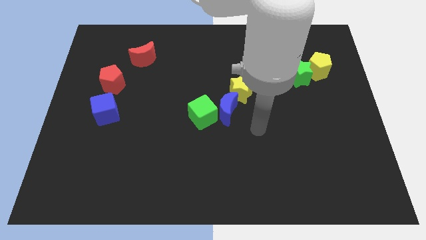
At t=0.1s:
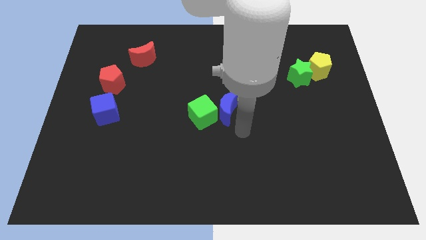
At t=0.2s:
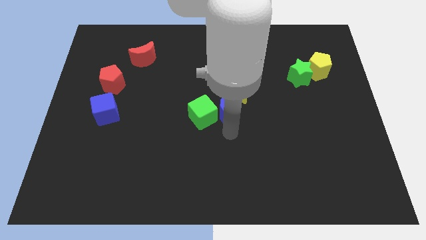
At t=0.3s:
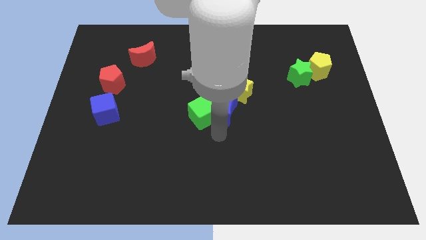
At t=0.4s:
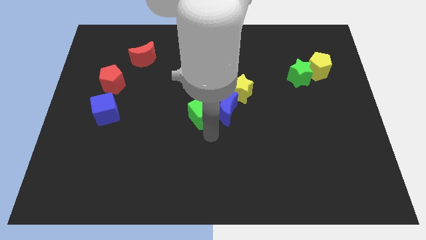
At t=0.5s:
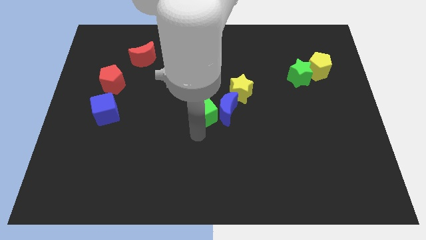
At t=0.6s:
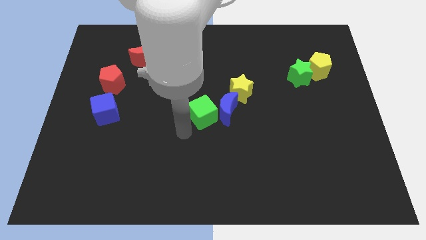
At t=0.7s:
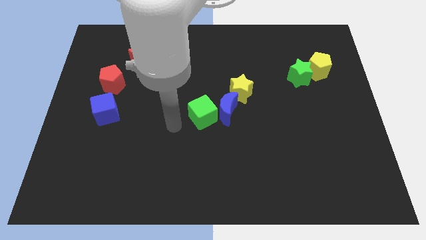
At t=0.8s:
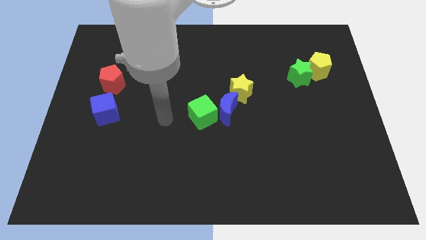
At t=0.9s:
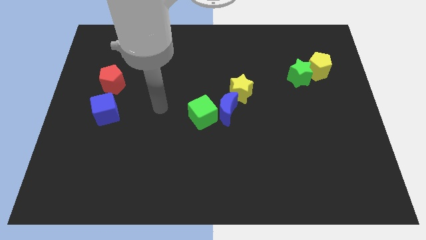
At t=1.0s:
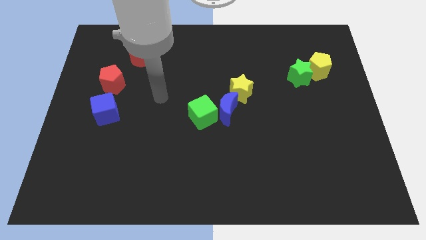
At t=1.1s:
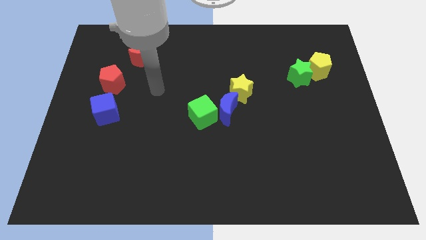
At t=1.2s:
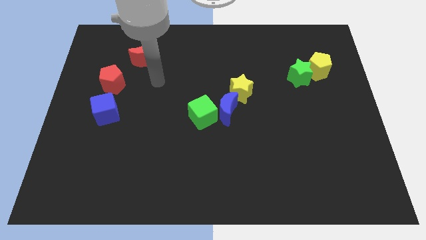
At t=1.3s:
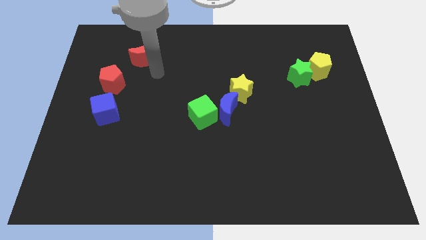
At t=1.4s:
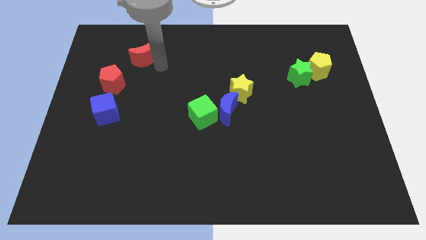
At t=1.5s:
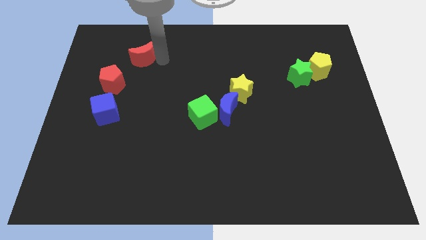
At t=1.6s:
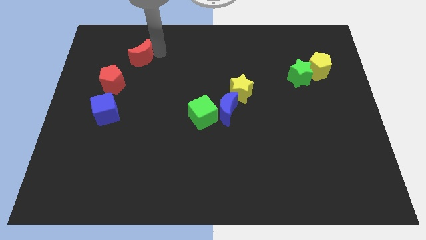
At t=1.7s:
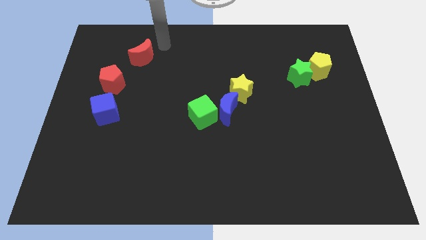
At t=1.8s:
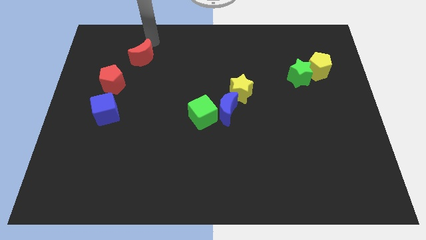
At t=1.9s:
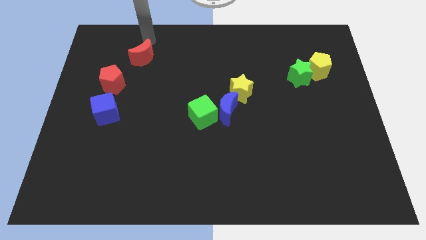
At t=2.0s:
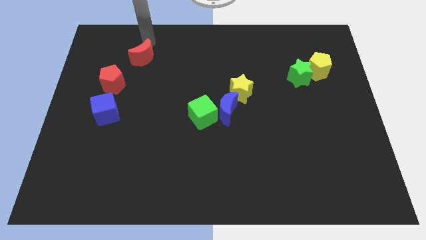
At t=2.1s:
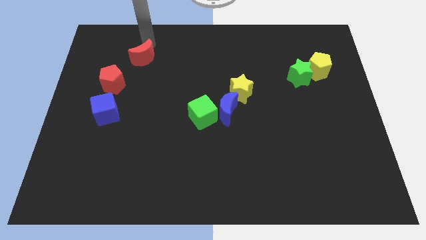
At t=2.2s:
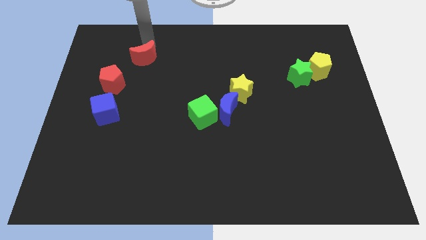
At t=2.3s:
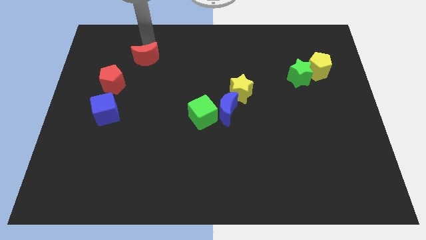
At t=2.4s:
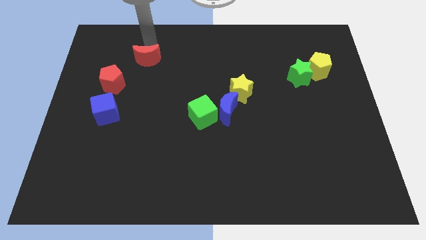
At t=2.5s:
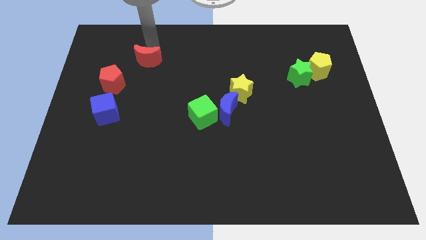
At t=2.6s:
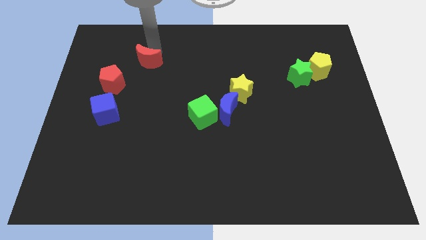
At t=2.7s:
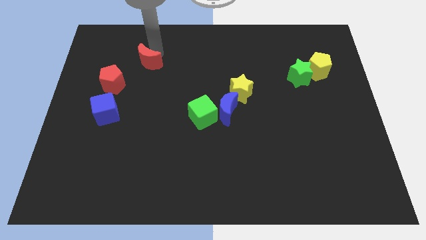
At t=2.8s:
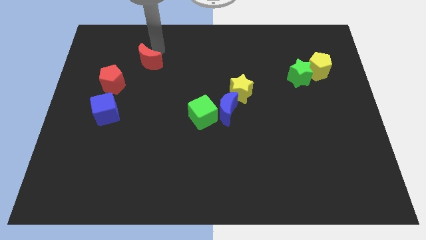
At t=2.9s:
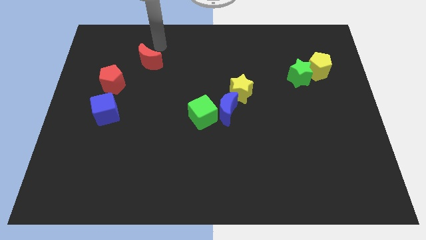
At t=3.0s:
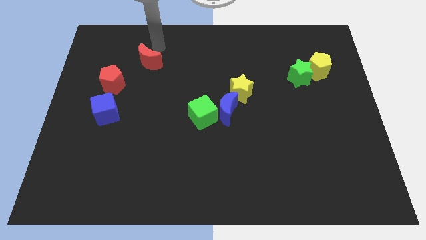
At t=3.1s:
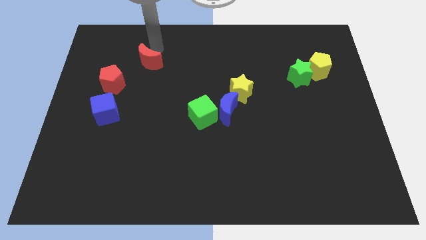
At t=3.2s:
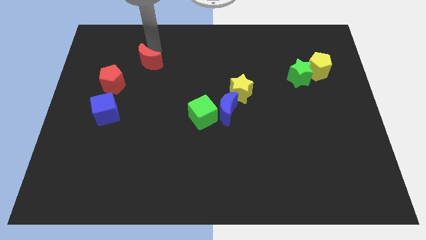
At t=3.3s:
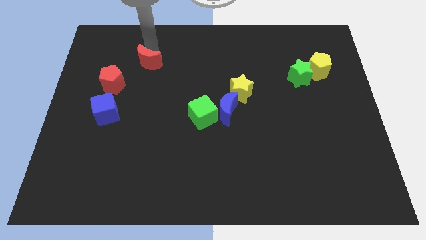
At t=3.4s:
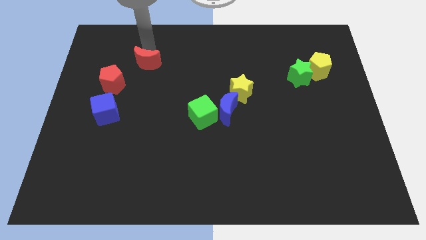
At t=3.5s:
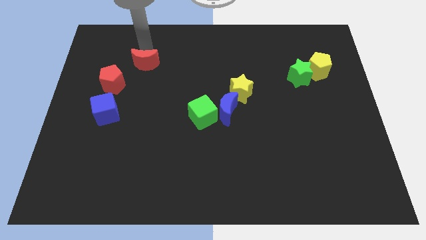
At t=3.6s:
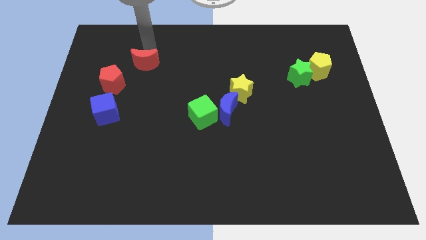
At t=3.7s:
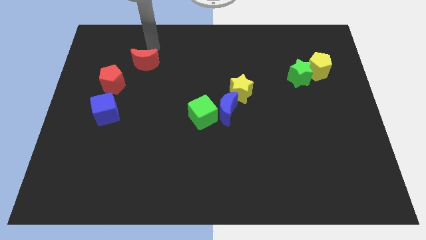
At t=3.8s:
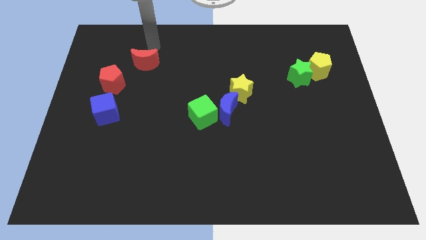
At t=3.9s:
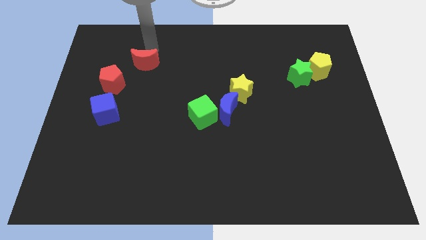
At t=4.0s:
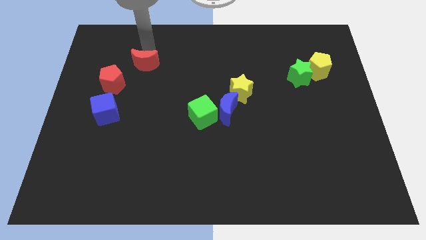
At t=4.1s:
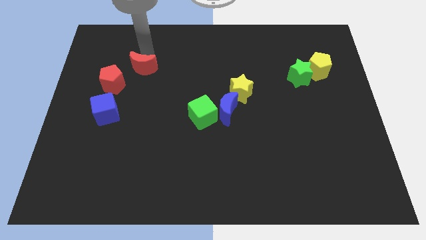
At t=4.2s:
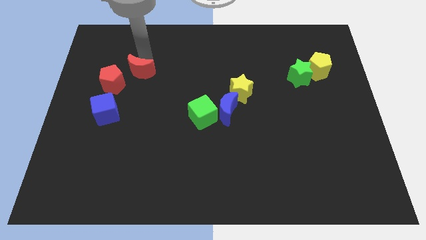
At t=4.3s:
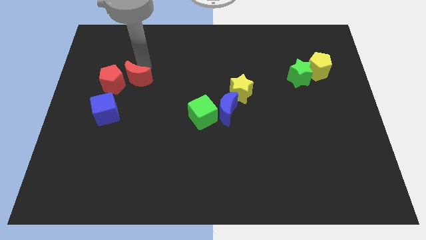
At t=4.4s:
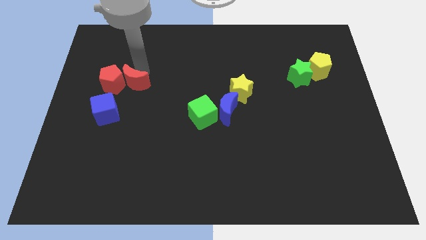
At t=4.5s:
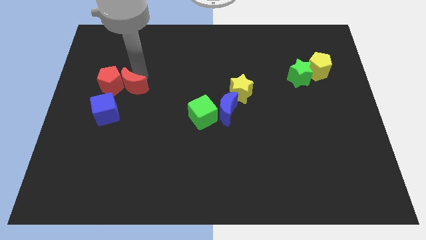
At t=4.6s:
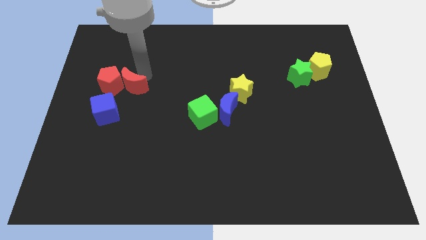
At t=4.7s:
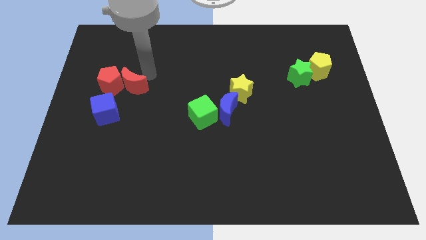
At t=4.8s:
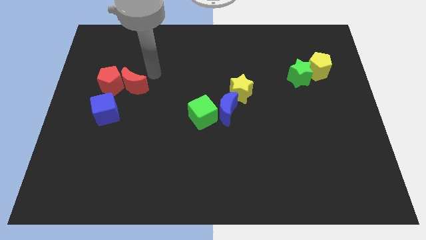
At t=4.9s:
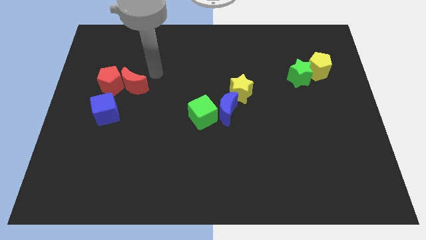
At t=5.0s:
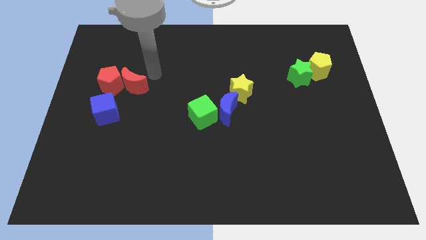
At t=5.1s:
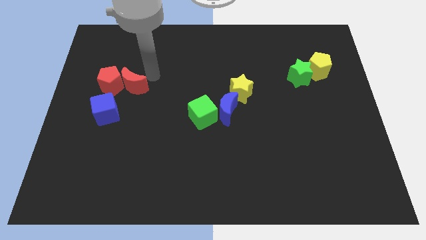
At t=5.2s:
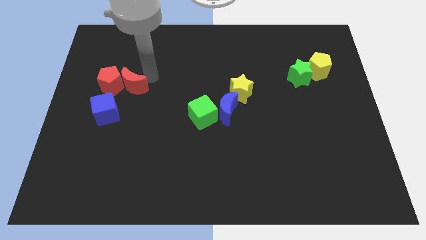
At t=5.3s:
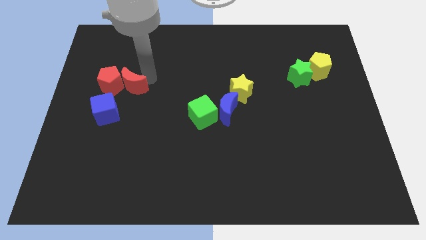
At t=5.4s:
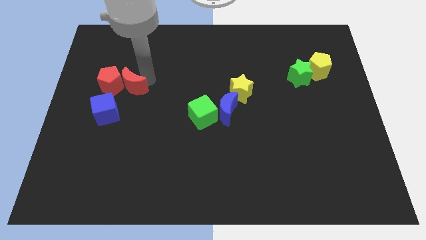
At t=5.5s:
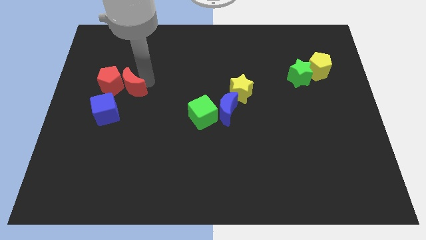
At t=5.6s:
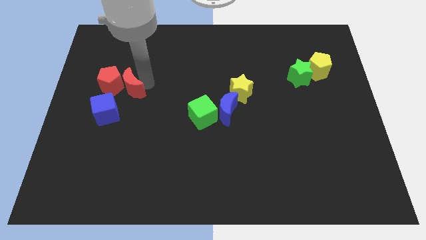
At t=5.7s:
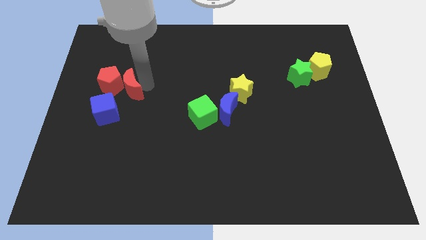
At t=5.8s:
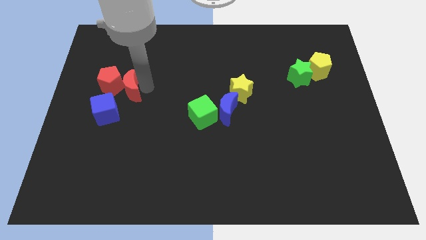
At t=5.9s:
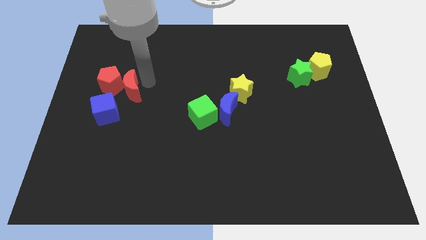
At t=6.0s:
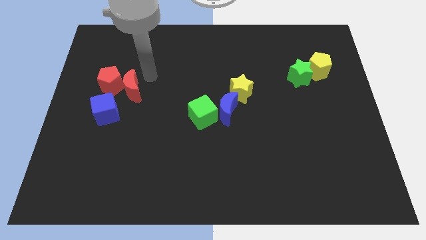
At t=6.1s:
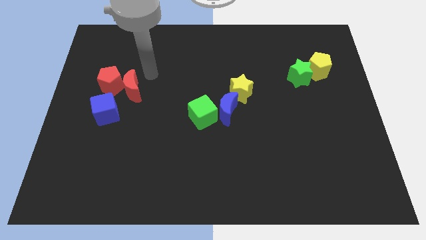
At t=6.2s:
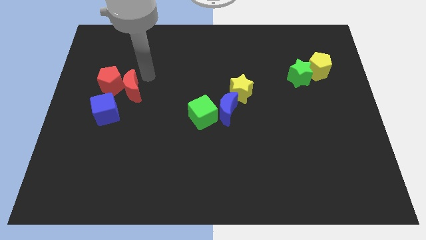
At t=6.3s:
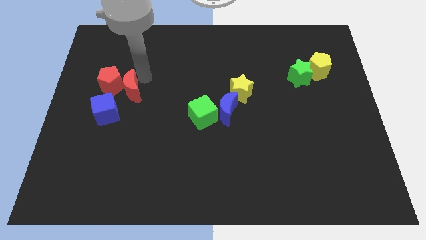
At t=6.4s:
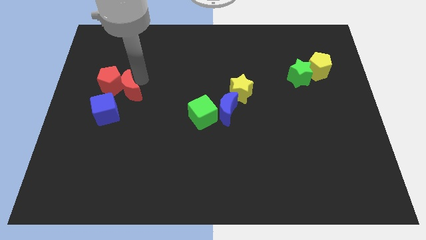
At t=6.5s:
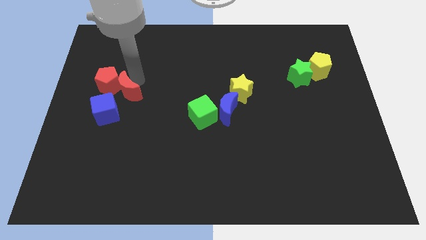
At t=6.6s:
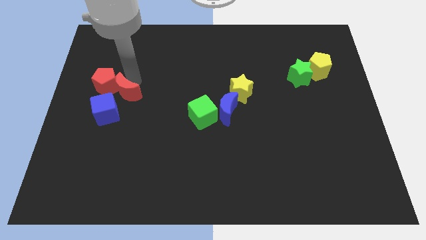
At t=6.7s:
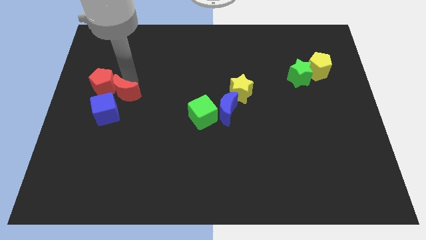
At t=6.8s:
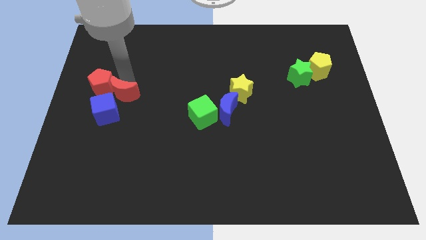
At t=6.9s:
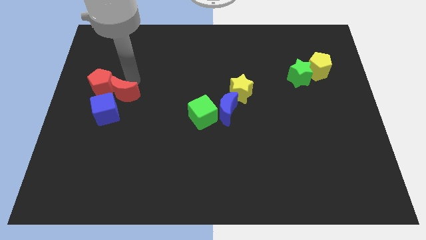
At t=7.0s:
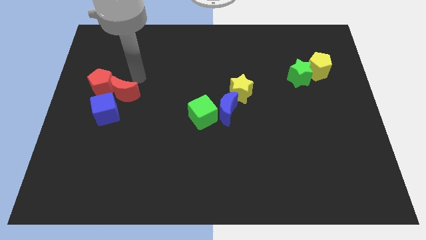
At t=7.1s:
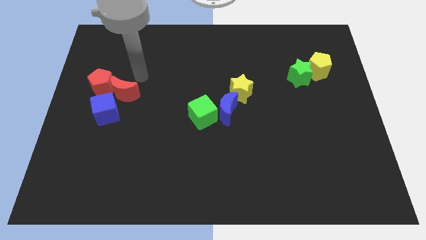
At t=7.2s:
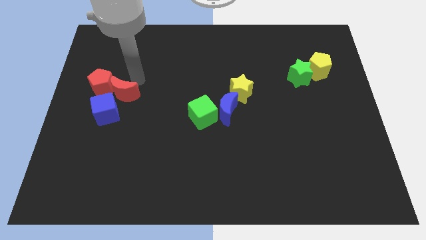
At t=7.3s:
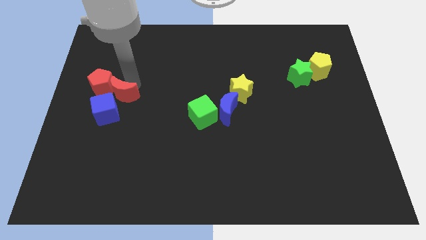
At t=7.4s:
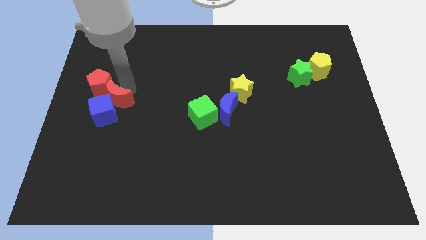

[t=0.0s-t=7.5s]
slide the red moon towards the blue cube

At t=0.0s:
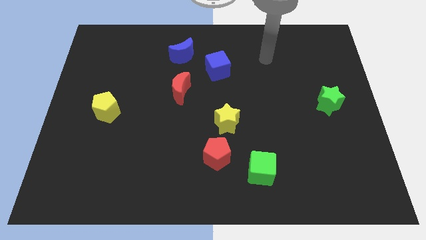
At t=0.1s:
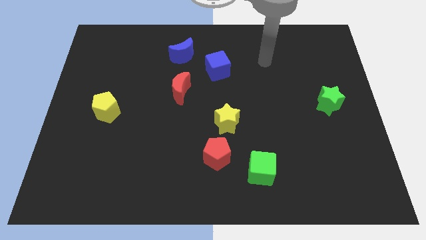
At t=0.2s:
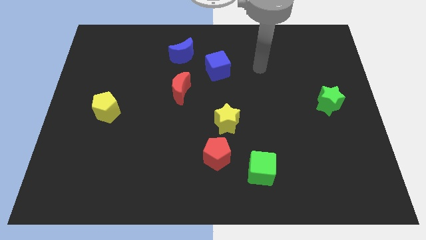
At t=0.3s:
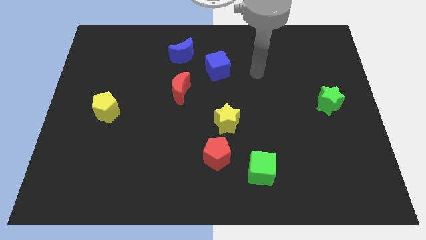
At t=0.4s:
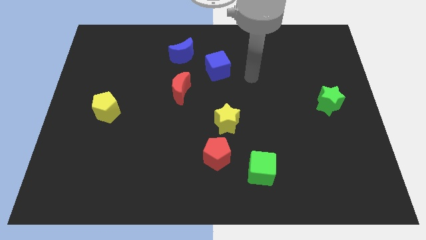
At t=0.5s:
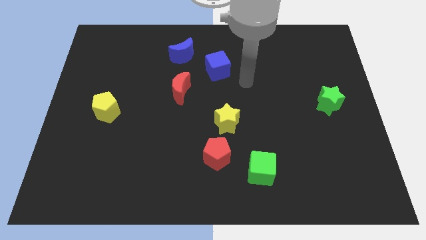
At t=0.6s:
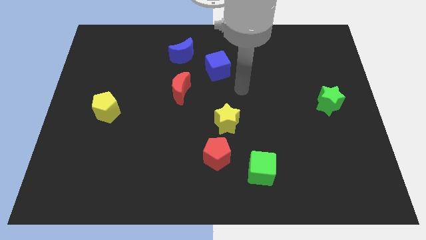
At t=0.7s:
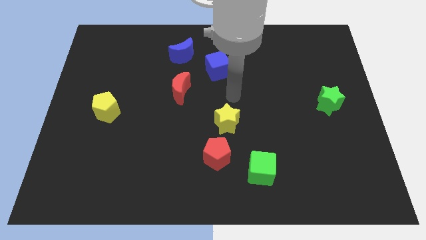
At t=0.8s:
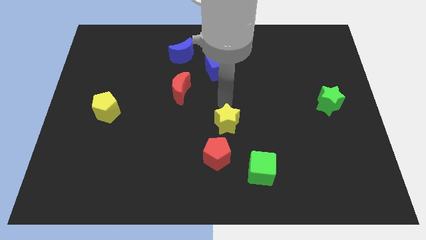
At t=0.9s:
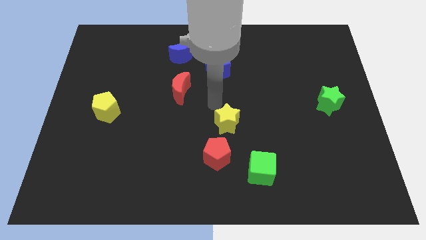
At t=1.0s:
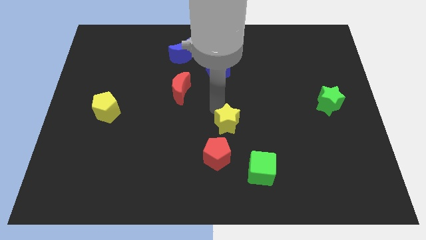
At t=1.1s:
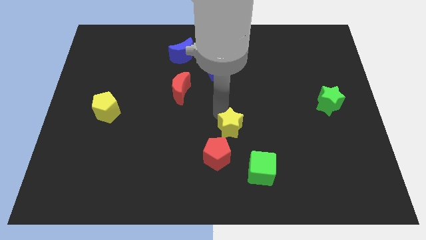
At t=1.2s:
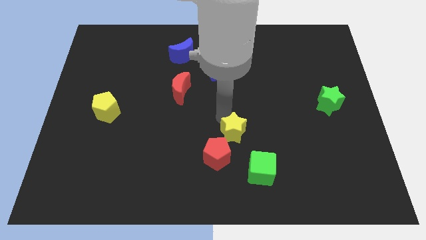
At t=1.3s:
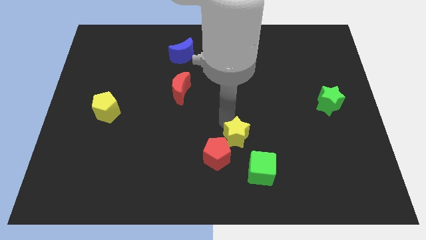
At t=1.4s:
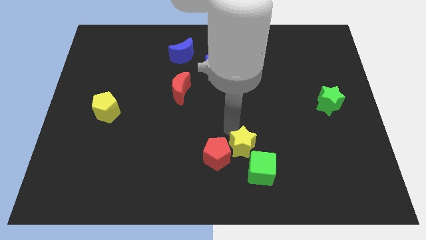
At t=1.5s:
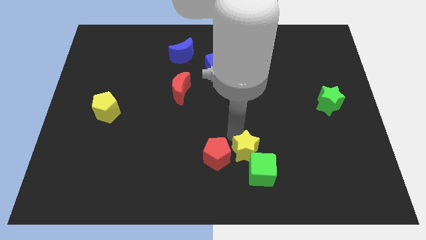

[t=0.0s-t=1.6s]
put the yellow star to the green cube
